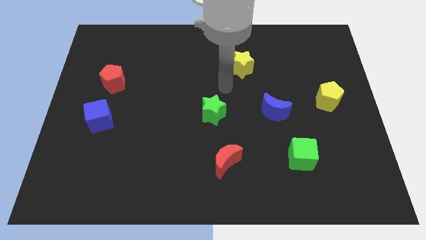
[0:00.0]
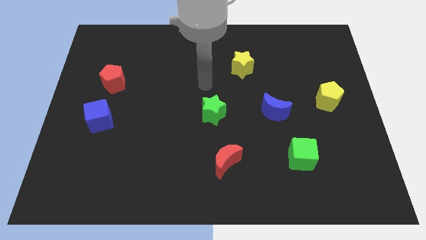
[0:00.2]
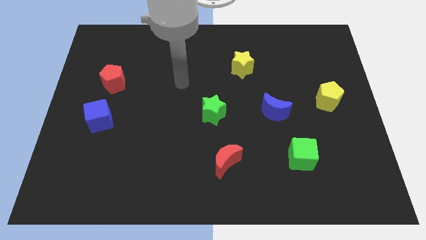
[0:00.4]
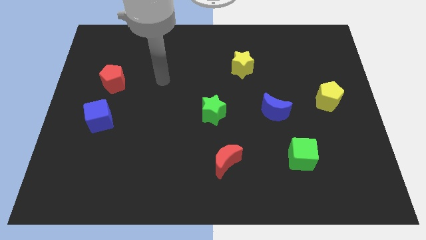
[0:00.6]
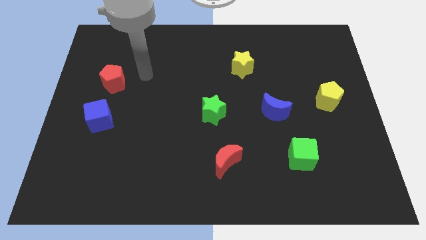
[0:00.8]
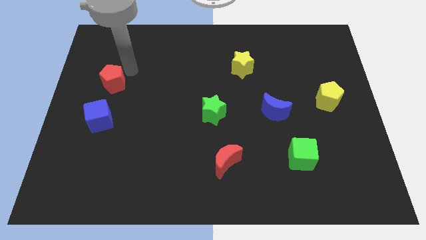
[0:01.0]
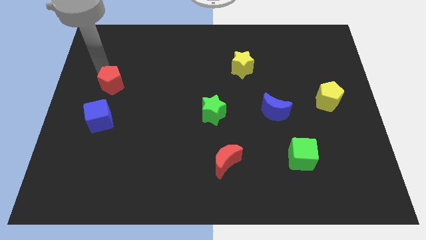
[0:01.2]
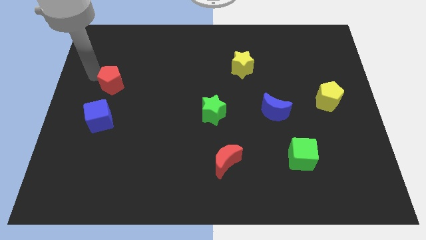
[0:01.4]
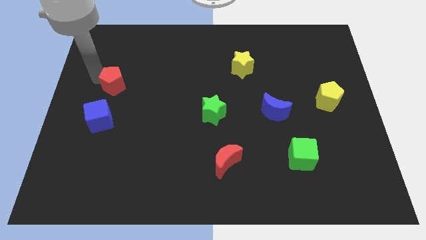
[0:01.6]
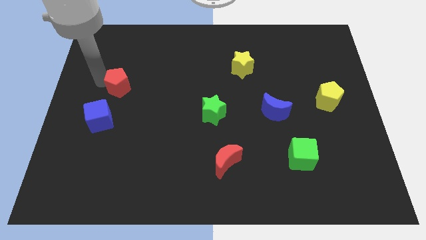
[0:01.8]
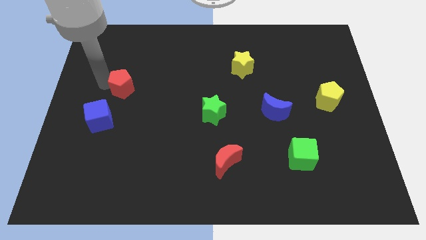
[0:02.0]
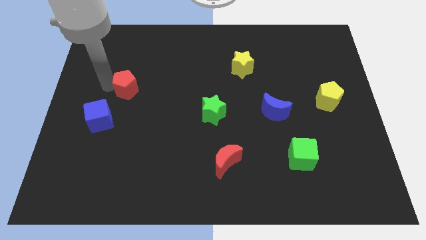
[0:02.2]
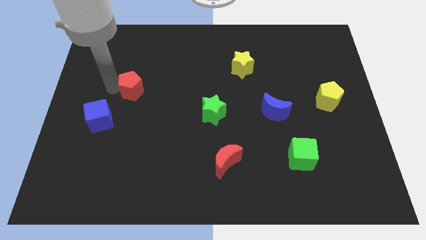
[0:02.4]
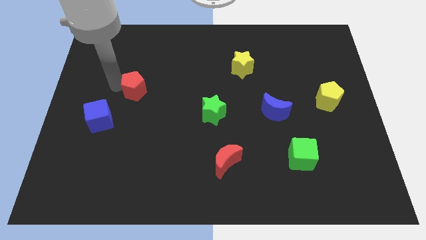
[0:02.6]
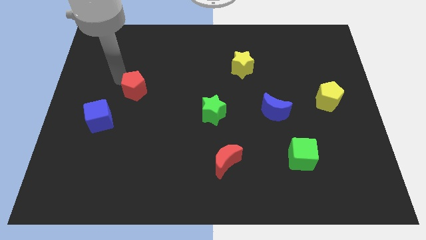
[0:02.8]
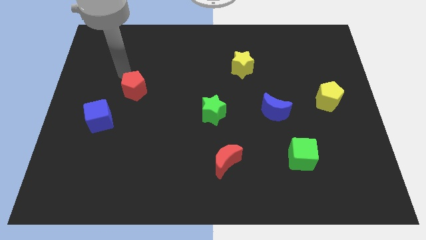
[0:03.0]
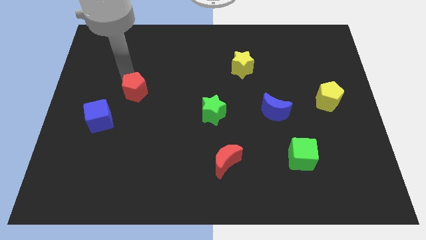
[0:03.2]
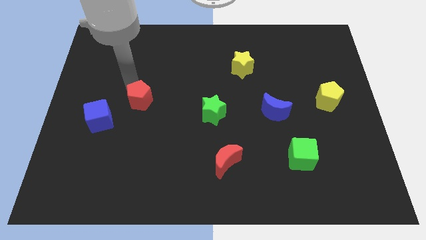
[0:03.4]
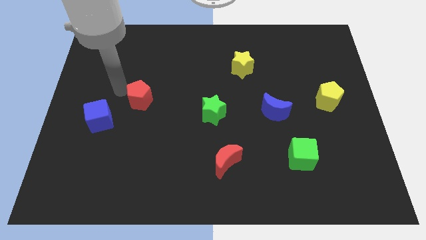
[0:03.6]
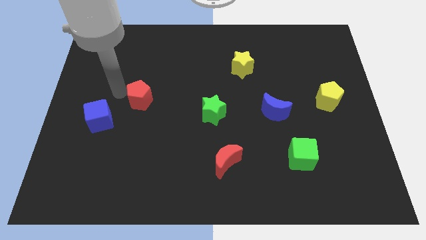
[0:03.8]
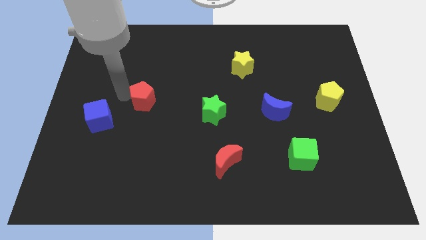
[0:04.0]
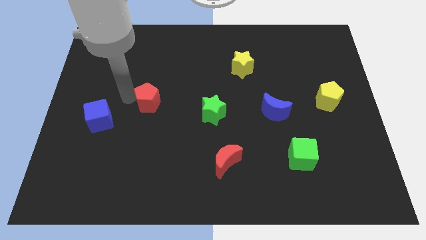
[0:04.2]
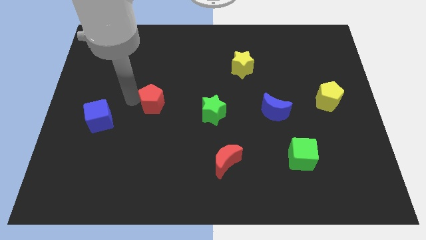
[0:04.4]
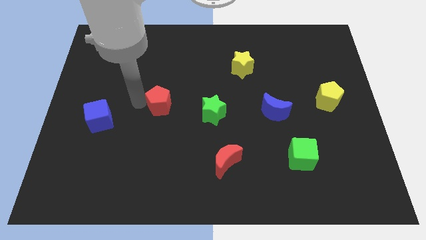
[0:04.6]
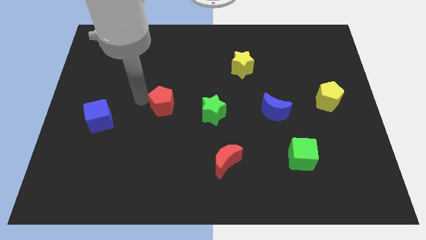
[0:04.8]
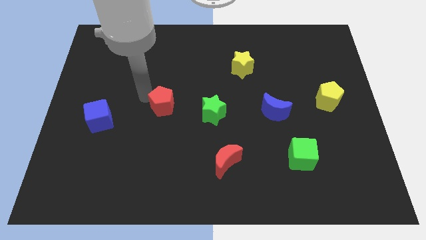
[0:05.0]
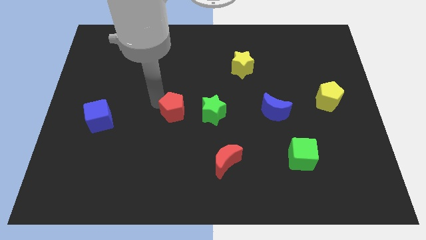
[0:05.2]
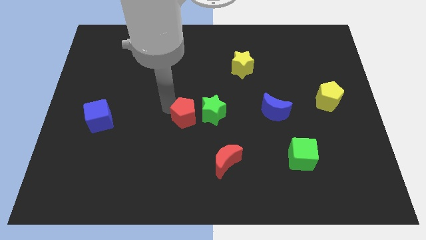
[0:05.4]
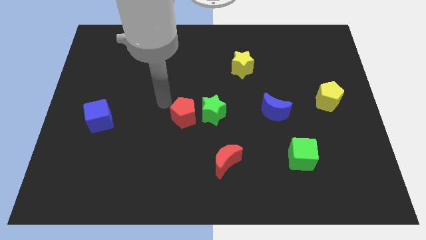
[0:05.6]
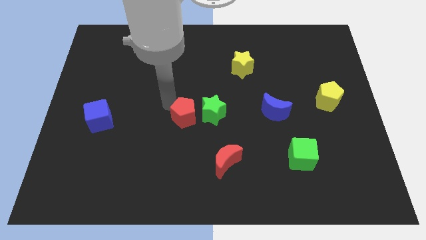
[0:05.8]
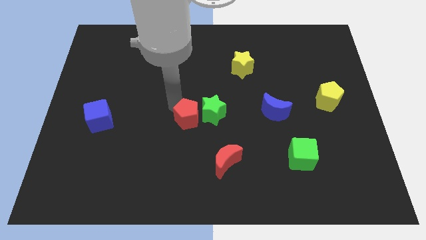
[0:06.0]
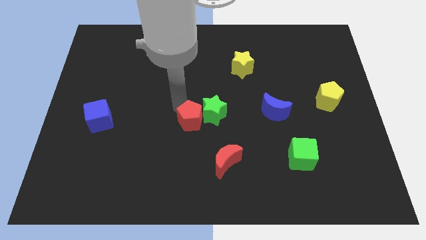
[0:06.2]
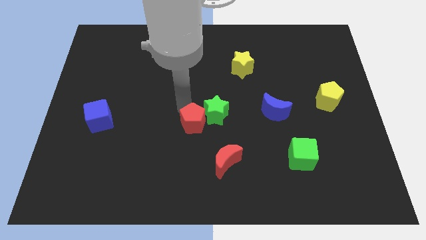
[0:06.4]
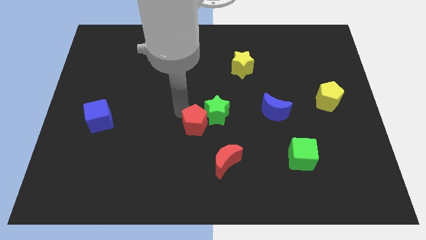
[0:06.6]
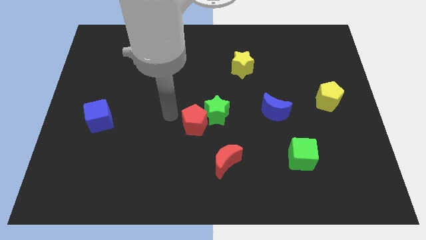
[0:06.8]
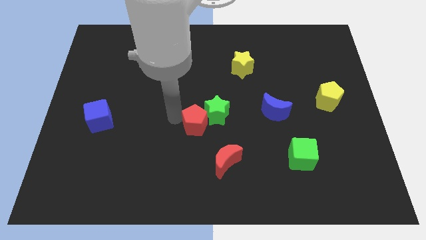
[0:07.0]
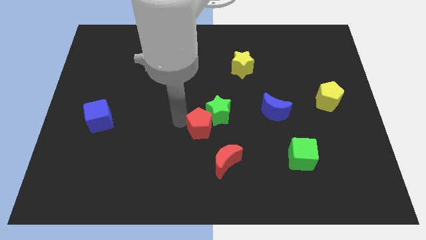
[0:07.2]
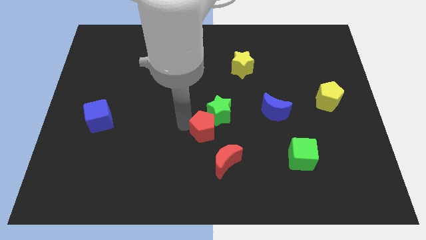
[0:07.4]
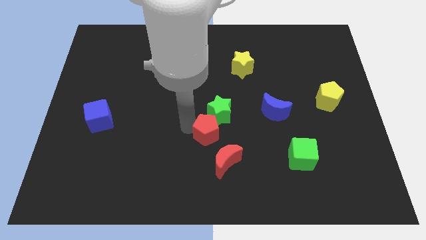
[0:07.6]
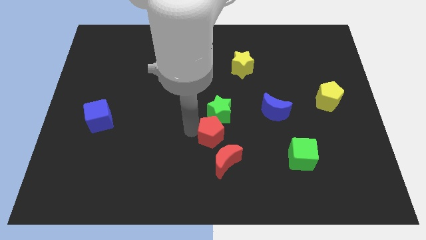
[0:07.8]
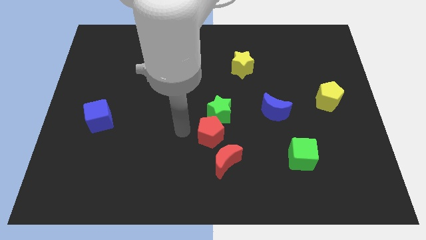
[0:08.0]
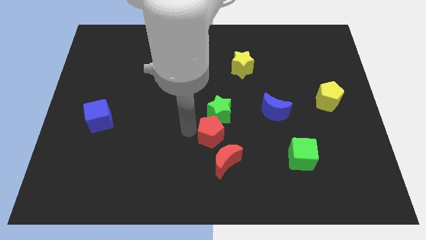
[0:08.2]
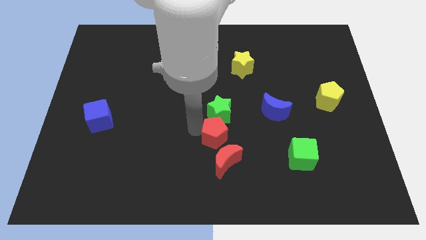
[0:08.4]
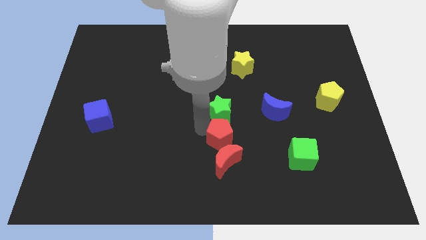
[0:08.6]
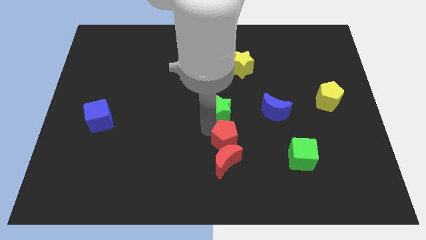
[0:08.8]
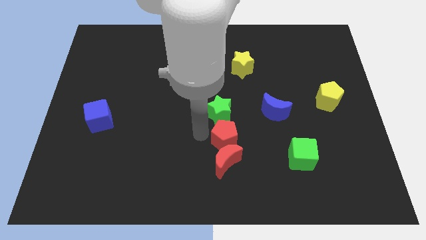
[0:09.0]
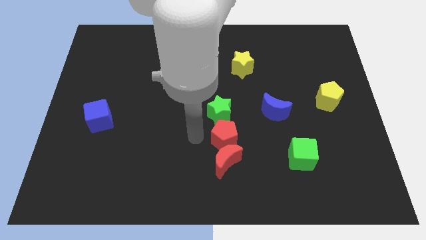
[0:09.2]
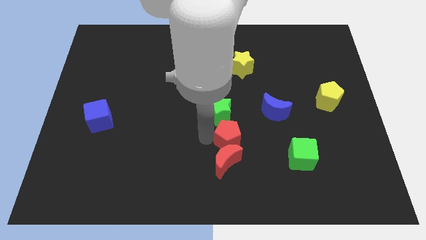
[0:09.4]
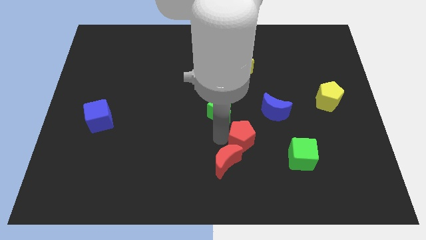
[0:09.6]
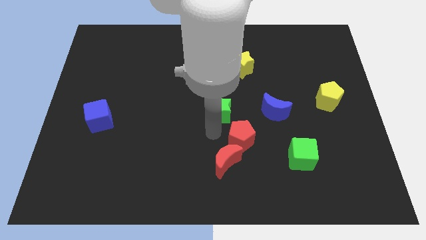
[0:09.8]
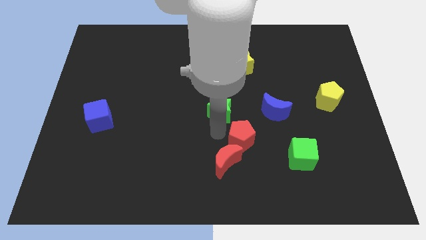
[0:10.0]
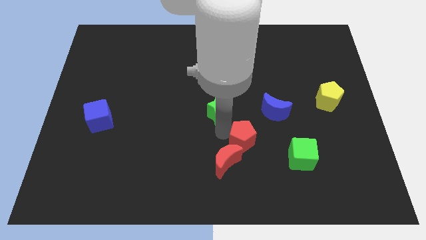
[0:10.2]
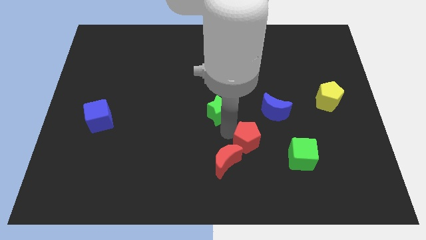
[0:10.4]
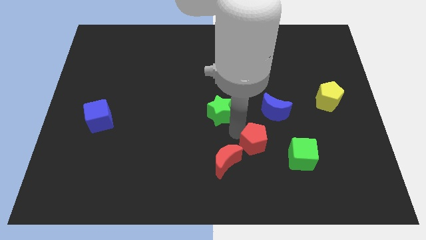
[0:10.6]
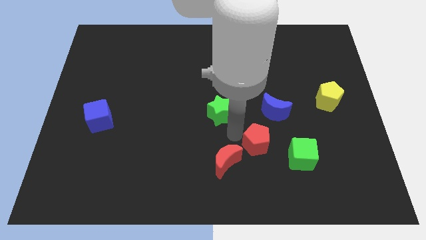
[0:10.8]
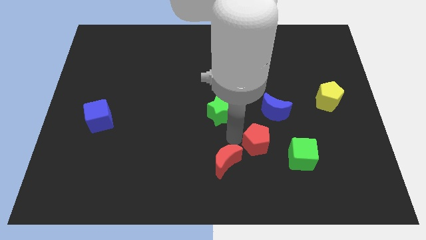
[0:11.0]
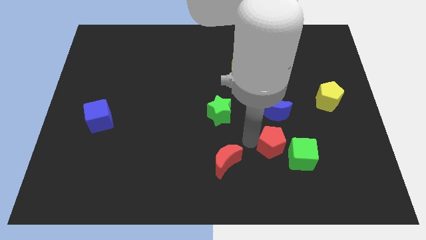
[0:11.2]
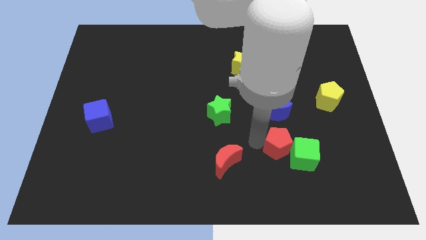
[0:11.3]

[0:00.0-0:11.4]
push the red pentagon close to the green cube

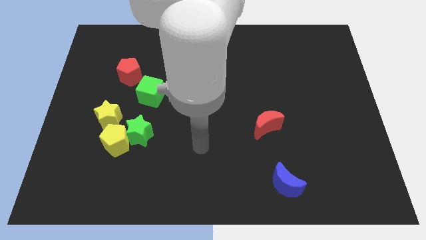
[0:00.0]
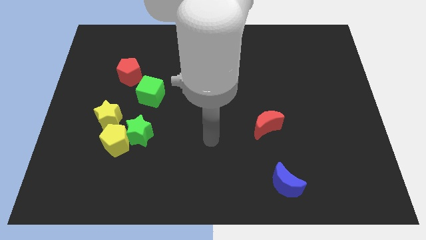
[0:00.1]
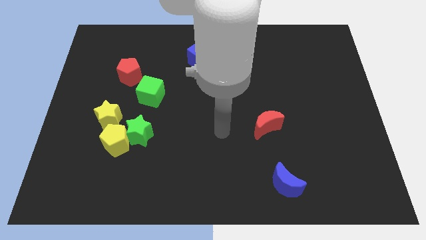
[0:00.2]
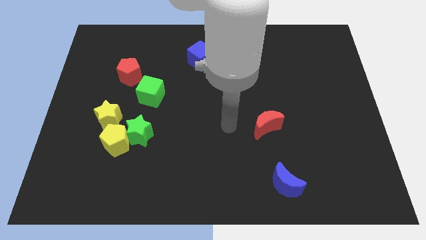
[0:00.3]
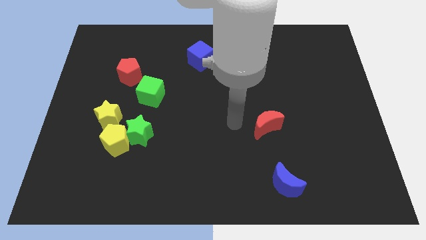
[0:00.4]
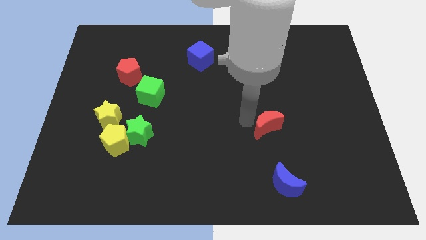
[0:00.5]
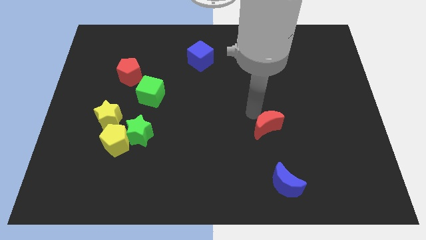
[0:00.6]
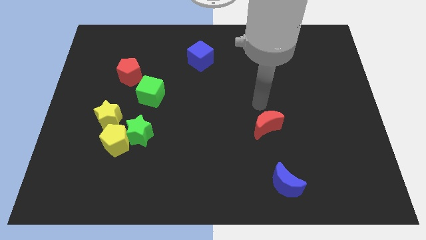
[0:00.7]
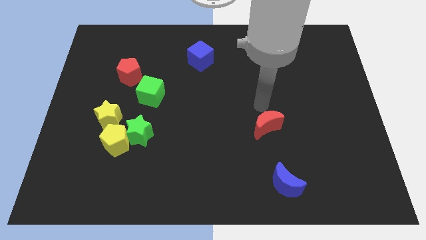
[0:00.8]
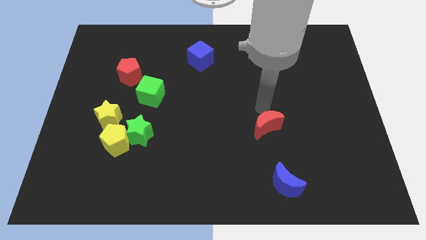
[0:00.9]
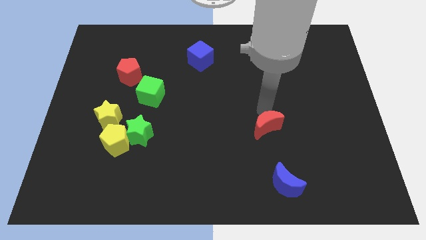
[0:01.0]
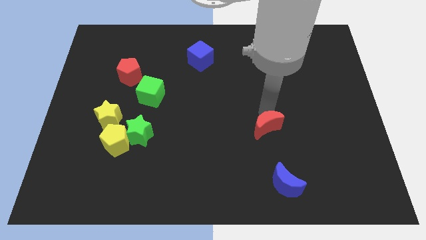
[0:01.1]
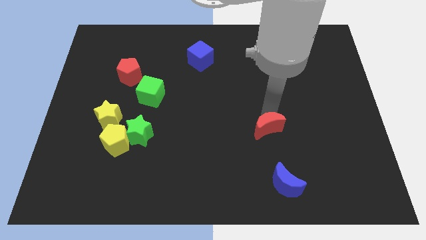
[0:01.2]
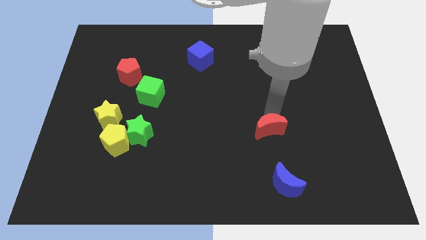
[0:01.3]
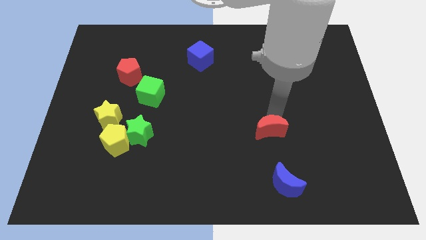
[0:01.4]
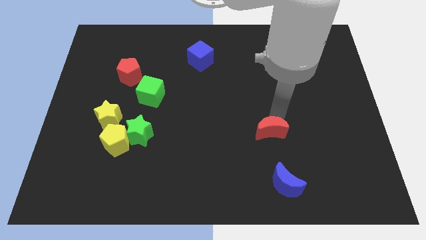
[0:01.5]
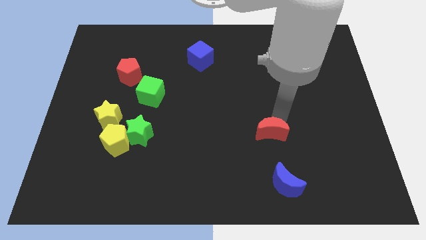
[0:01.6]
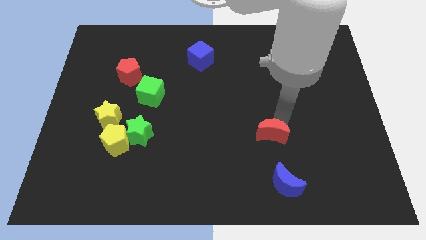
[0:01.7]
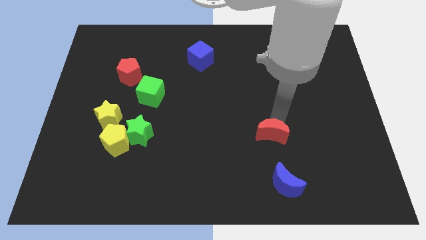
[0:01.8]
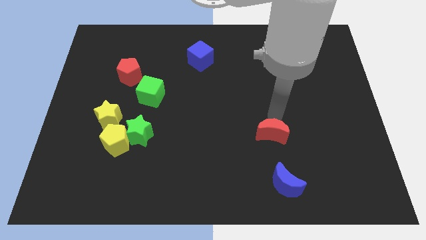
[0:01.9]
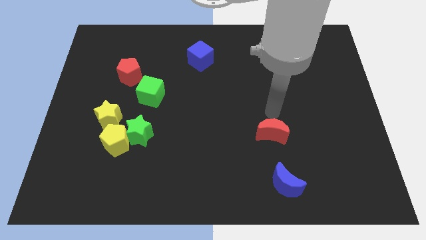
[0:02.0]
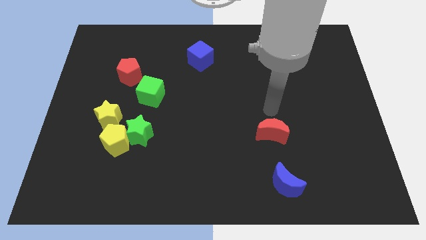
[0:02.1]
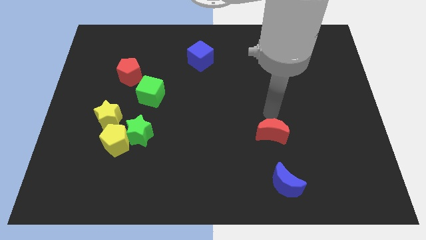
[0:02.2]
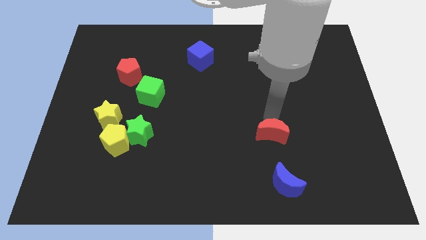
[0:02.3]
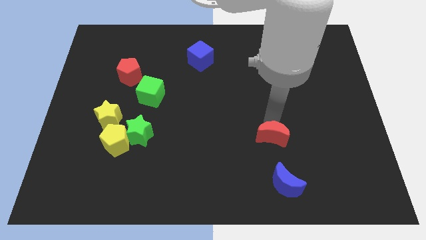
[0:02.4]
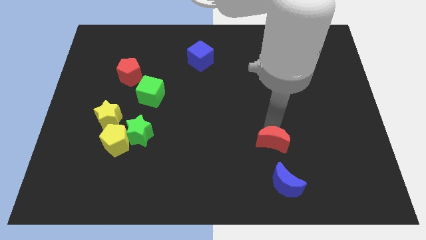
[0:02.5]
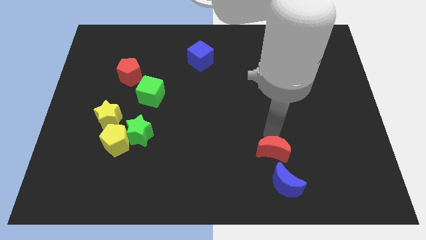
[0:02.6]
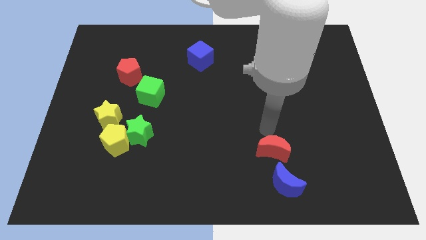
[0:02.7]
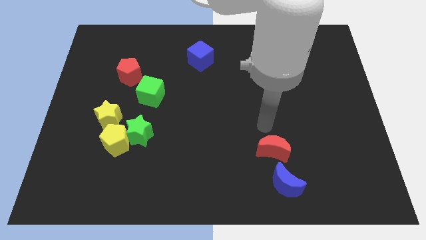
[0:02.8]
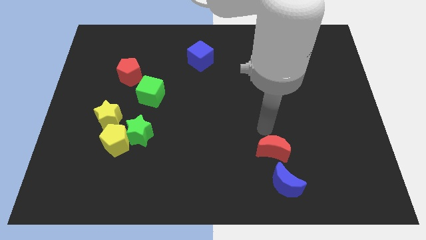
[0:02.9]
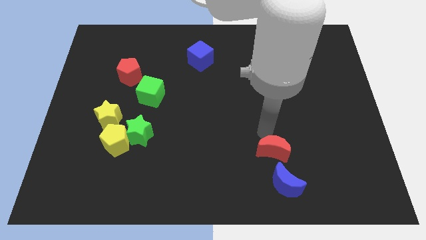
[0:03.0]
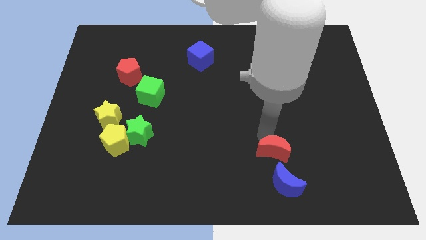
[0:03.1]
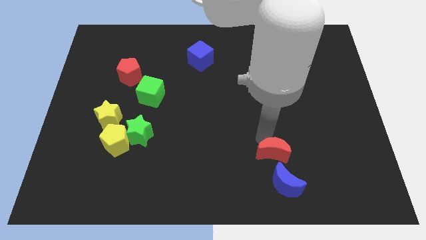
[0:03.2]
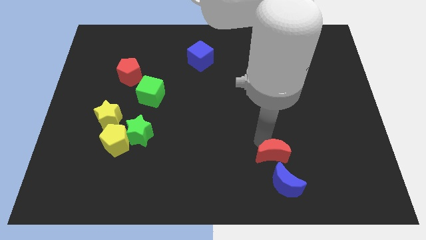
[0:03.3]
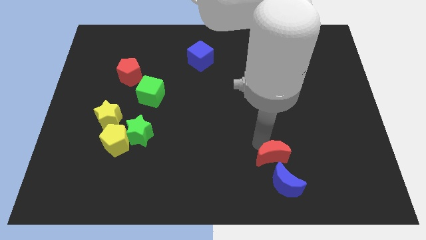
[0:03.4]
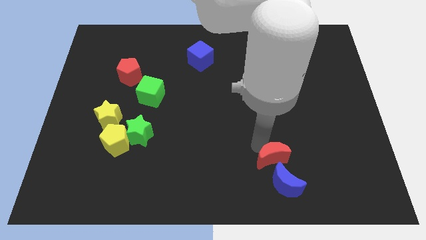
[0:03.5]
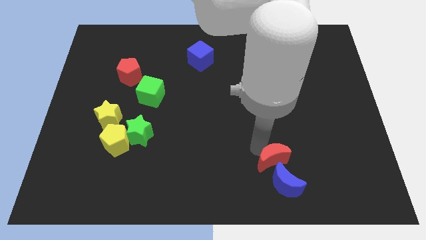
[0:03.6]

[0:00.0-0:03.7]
push the red moon close to the blue moon
